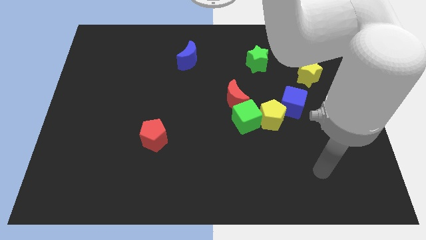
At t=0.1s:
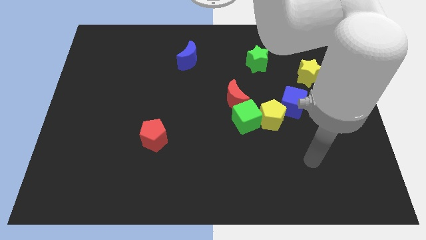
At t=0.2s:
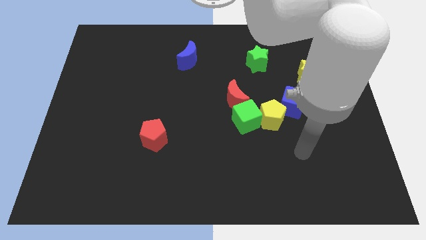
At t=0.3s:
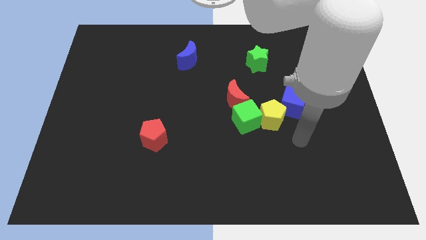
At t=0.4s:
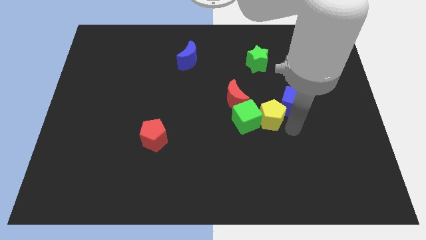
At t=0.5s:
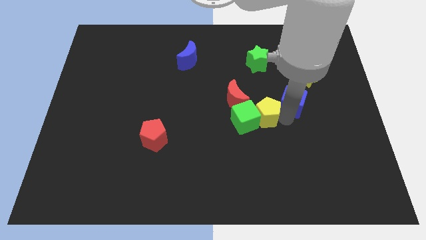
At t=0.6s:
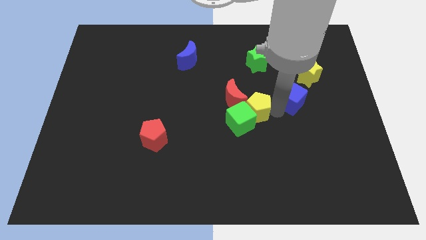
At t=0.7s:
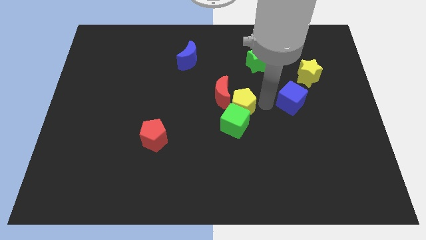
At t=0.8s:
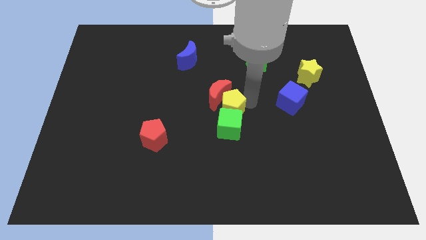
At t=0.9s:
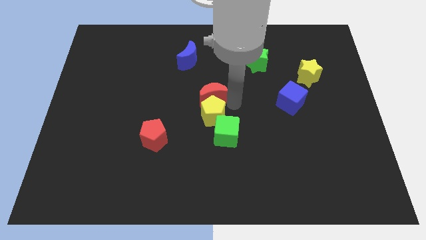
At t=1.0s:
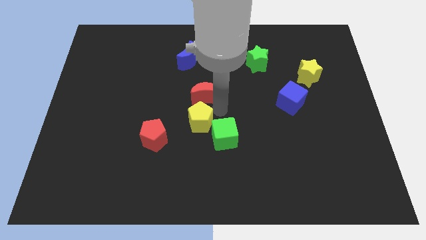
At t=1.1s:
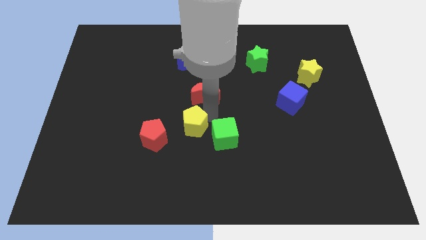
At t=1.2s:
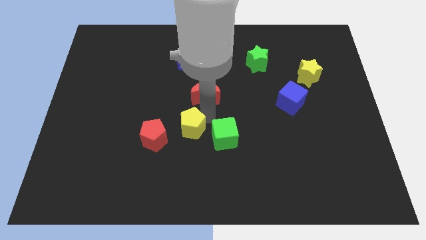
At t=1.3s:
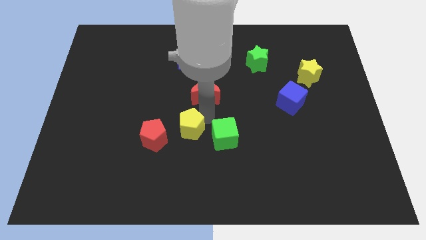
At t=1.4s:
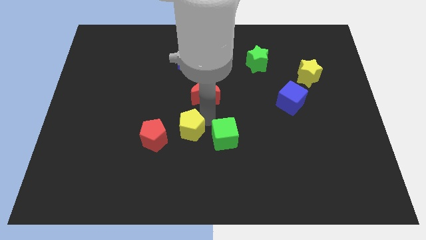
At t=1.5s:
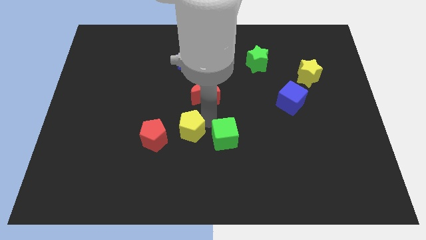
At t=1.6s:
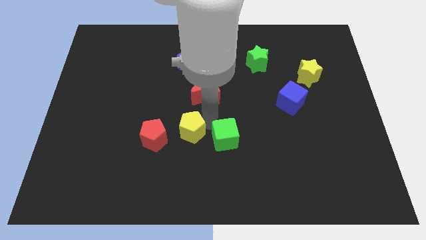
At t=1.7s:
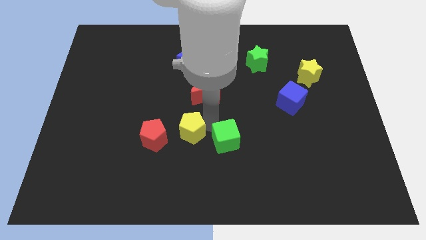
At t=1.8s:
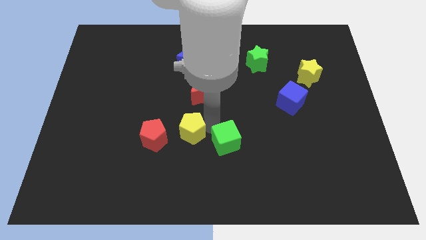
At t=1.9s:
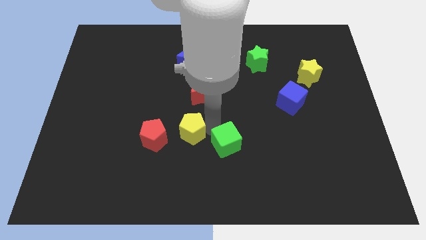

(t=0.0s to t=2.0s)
pull the green cube apart from the yellow pentagon and red moon

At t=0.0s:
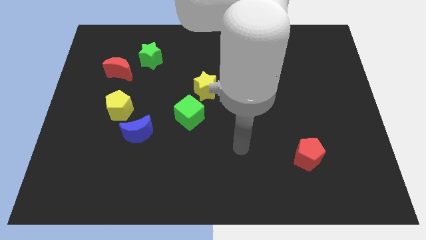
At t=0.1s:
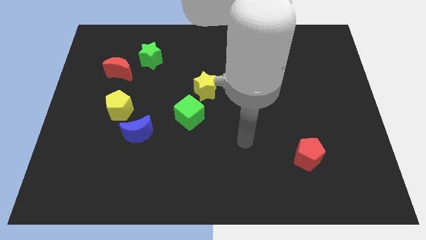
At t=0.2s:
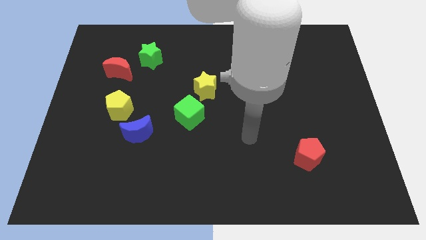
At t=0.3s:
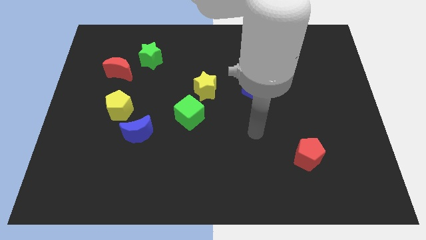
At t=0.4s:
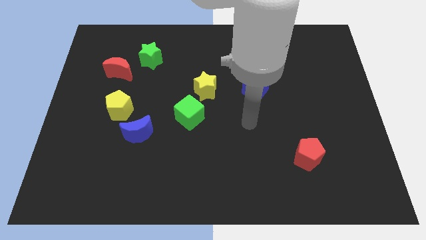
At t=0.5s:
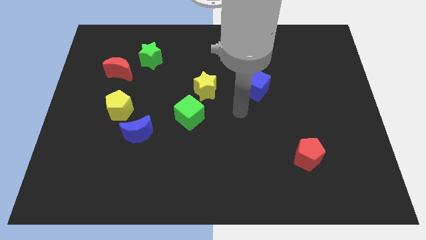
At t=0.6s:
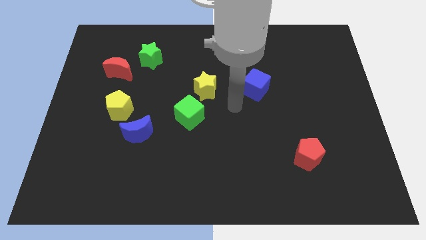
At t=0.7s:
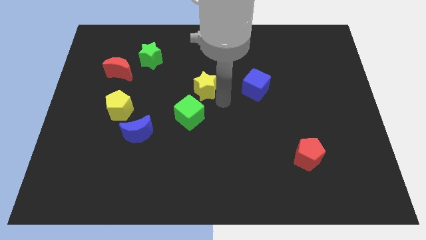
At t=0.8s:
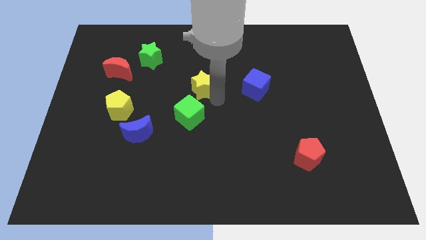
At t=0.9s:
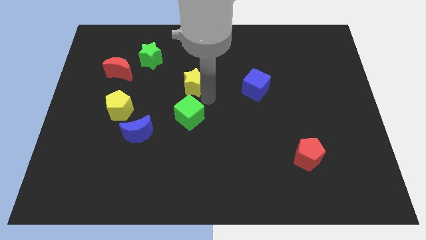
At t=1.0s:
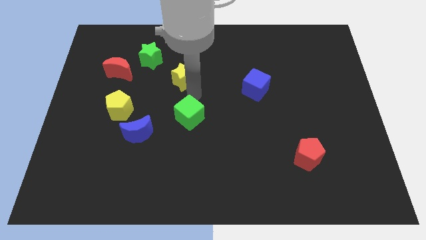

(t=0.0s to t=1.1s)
pull the green cube apart from the yellow star

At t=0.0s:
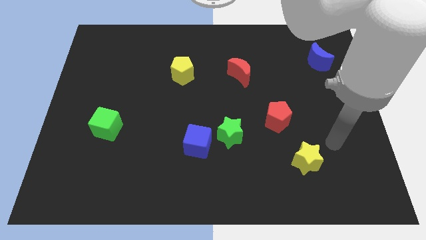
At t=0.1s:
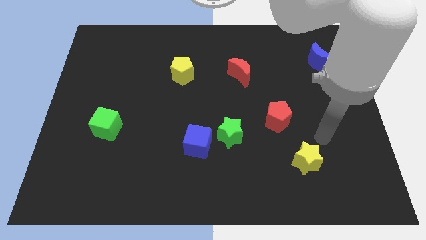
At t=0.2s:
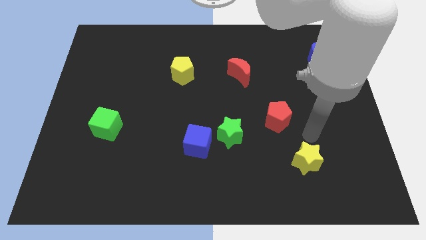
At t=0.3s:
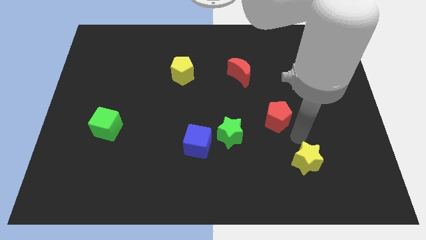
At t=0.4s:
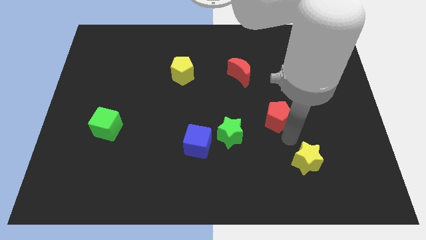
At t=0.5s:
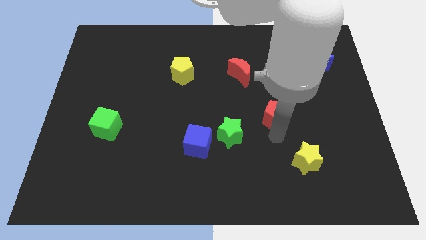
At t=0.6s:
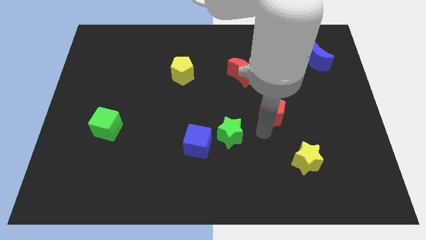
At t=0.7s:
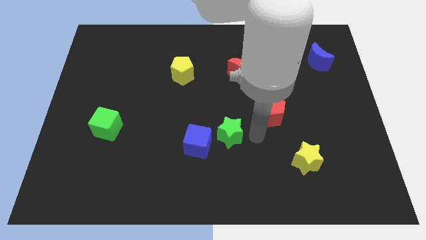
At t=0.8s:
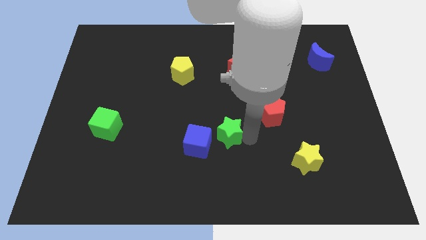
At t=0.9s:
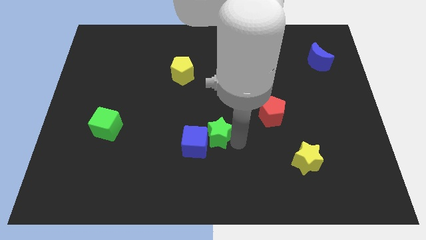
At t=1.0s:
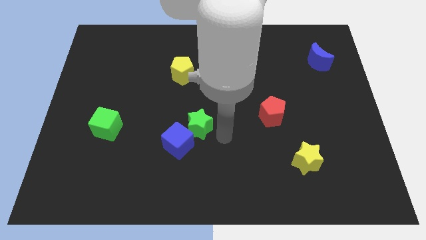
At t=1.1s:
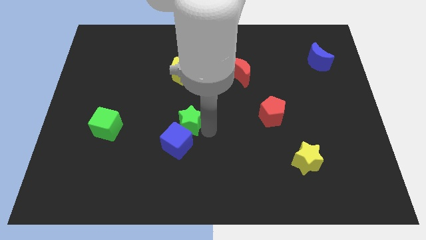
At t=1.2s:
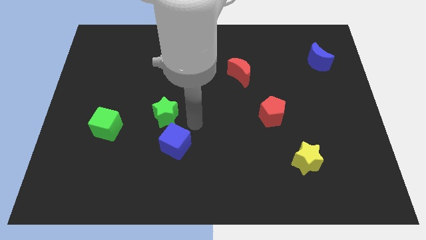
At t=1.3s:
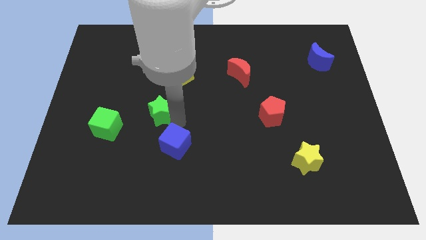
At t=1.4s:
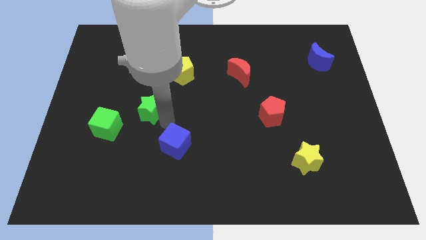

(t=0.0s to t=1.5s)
pull the blue cube apart from the green star

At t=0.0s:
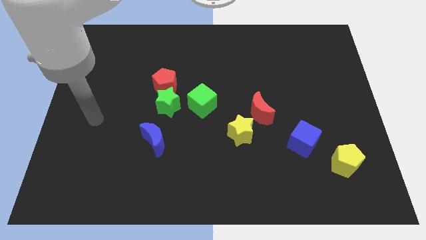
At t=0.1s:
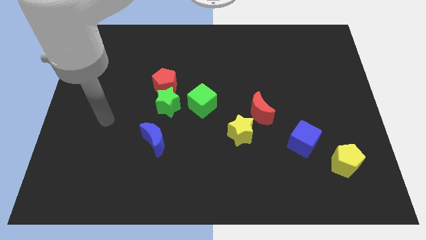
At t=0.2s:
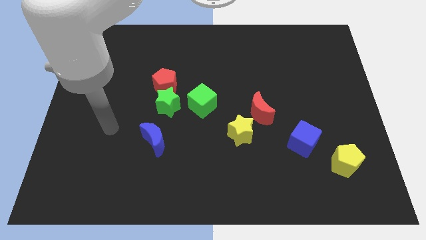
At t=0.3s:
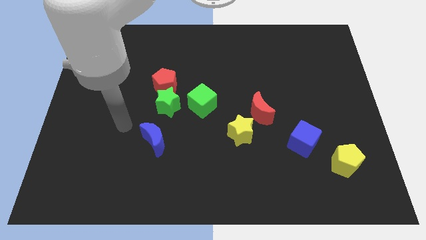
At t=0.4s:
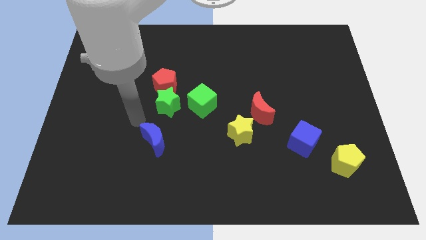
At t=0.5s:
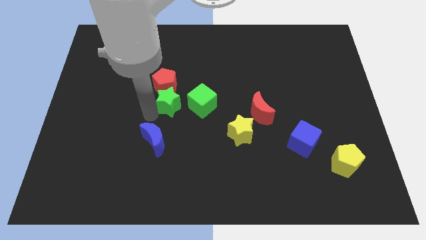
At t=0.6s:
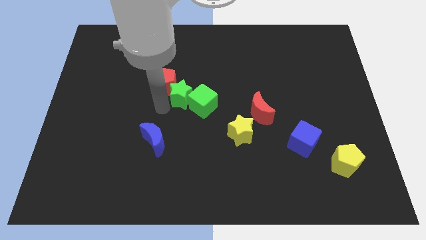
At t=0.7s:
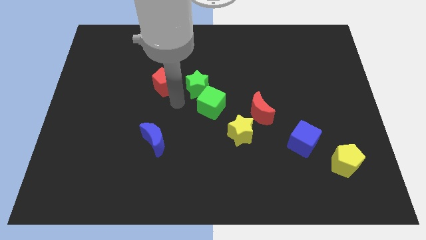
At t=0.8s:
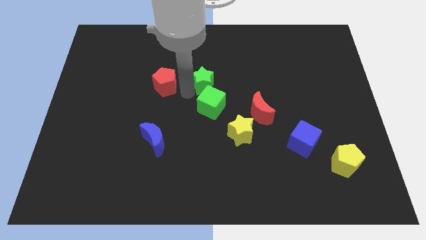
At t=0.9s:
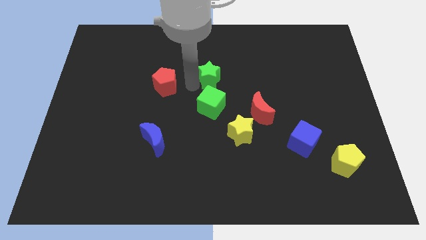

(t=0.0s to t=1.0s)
pull the red pentagon apart from the green star

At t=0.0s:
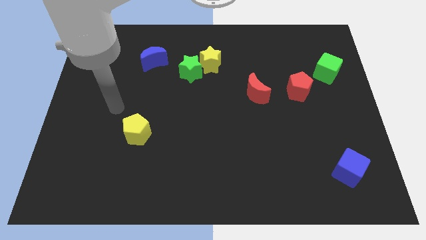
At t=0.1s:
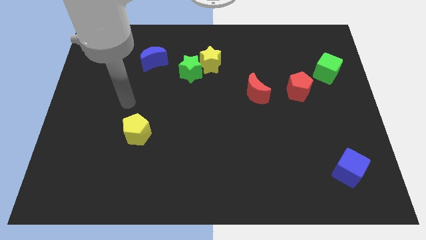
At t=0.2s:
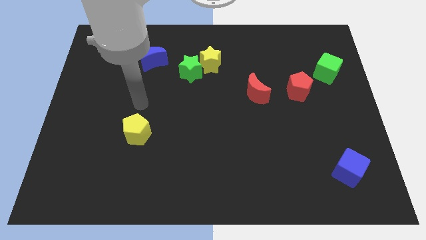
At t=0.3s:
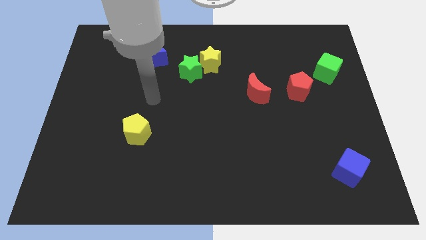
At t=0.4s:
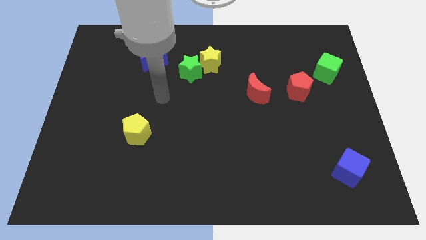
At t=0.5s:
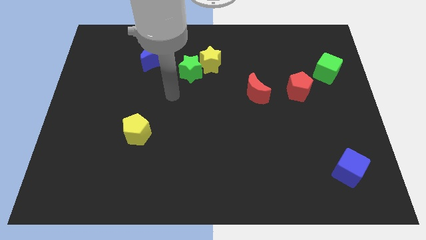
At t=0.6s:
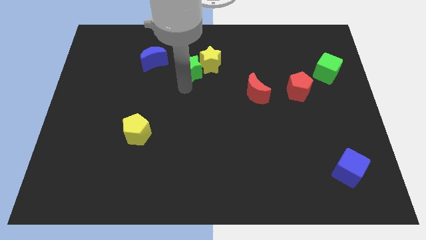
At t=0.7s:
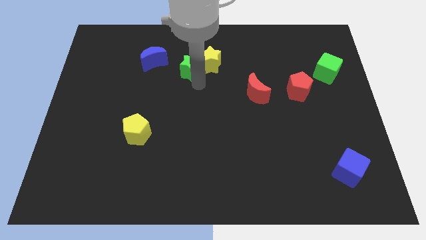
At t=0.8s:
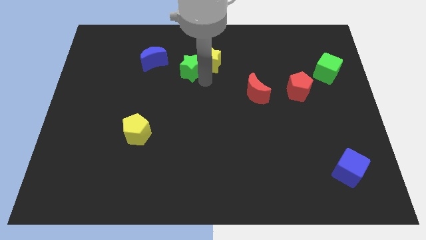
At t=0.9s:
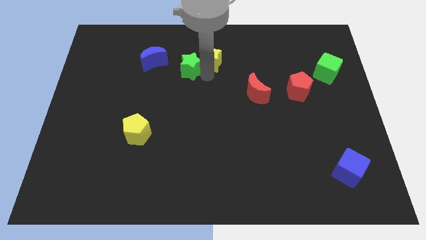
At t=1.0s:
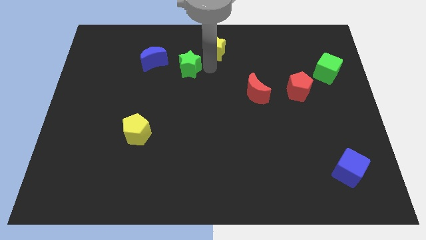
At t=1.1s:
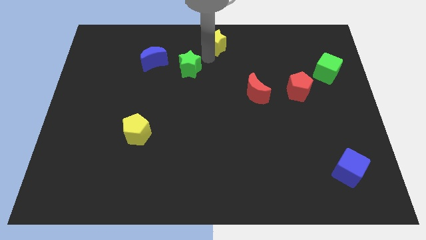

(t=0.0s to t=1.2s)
pull the green star apart from the yellow star

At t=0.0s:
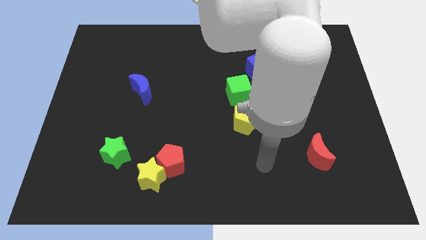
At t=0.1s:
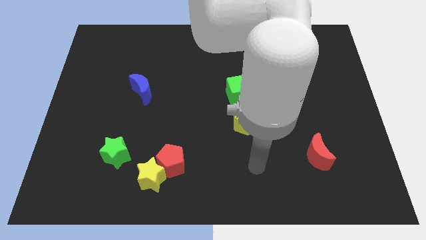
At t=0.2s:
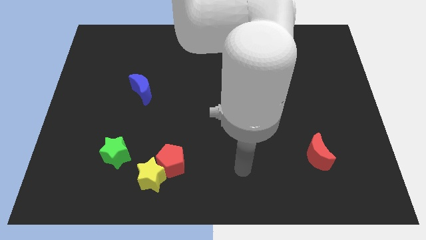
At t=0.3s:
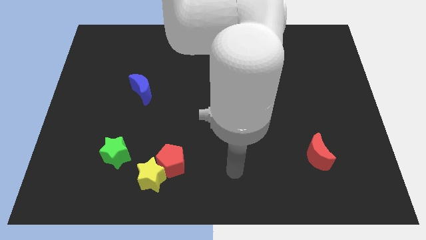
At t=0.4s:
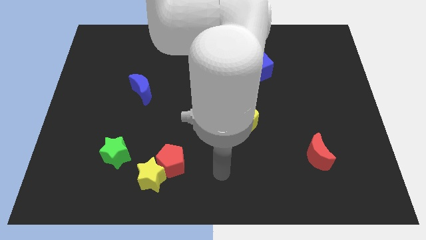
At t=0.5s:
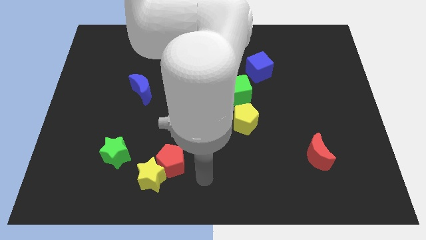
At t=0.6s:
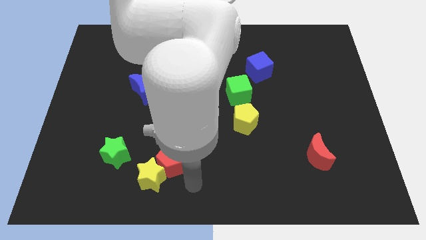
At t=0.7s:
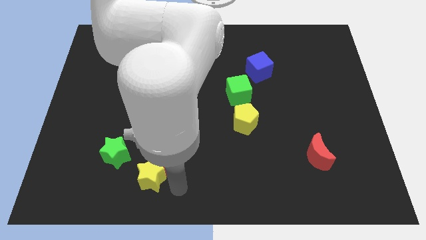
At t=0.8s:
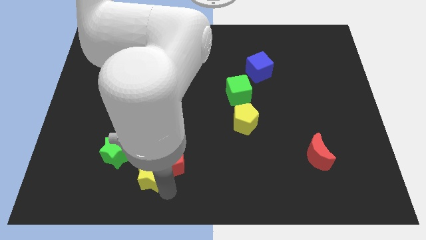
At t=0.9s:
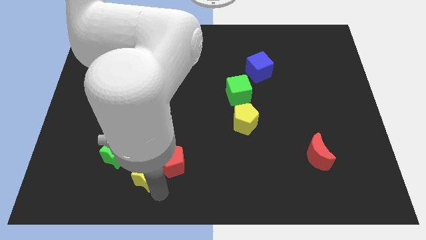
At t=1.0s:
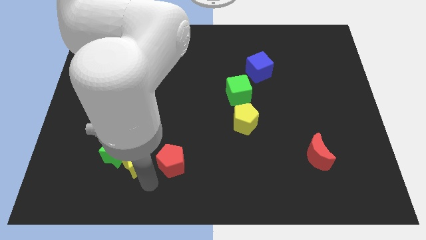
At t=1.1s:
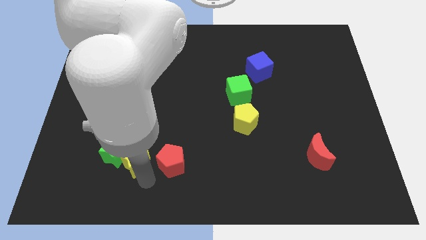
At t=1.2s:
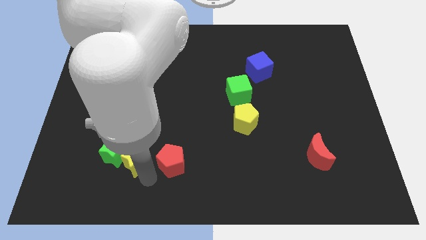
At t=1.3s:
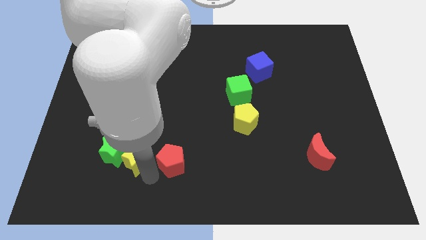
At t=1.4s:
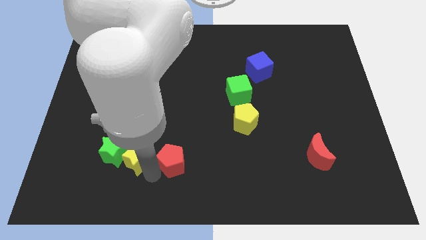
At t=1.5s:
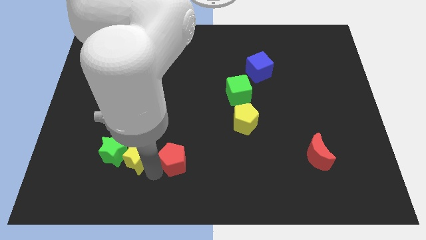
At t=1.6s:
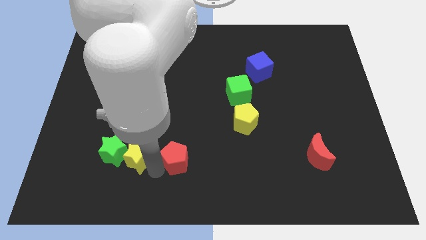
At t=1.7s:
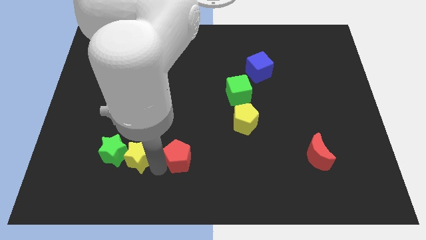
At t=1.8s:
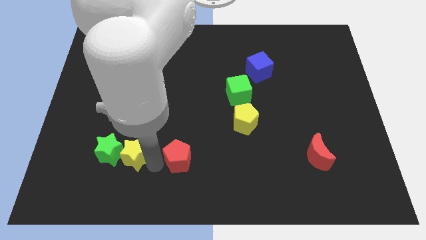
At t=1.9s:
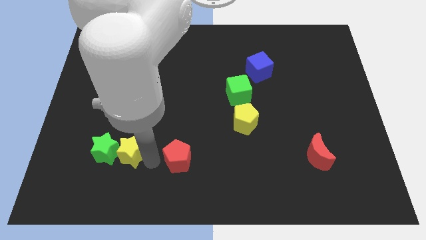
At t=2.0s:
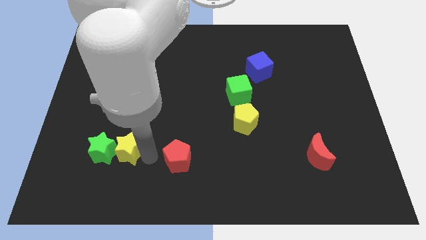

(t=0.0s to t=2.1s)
pull the red pentagon apart from the yellow star

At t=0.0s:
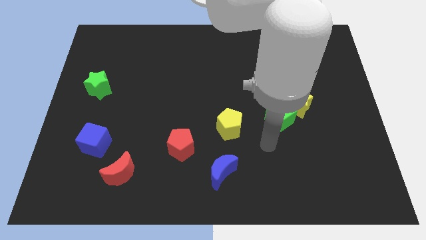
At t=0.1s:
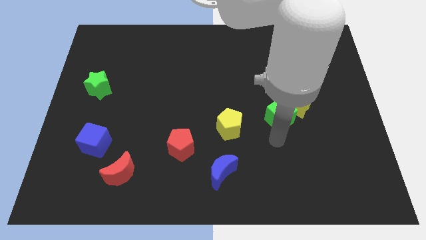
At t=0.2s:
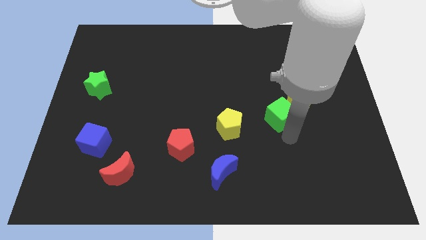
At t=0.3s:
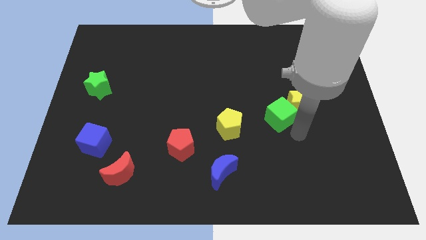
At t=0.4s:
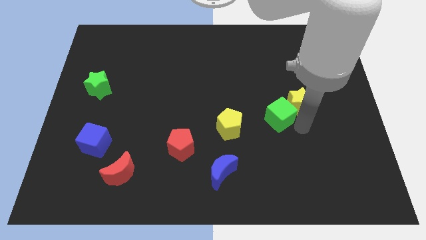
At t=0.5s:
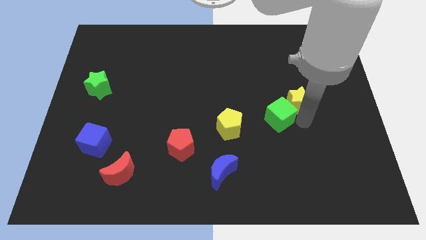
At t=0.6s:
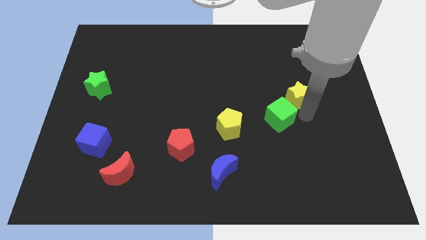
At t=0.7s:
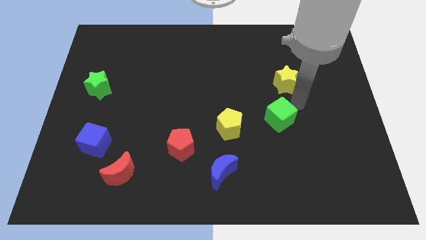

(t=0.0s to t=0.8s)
move the green cube away from the yellow star
